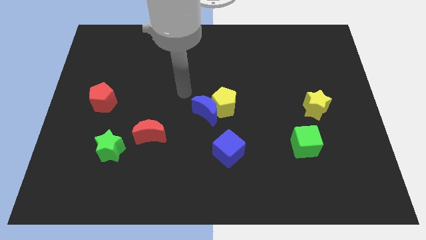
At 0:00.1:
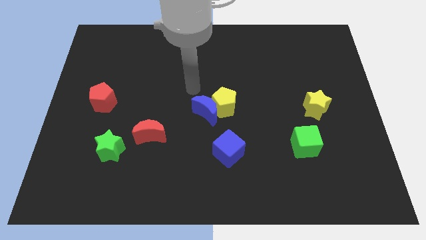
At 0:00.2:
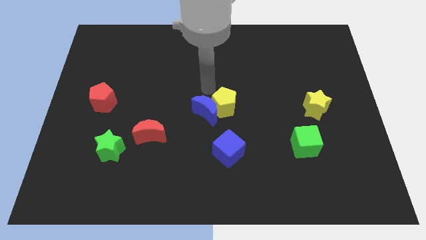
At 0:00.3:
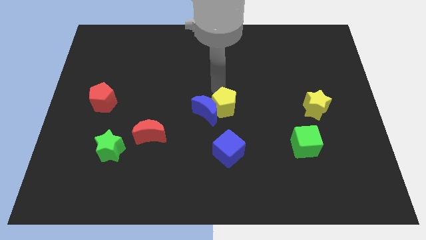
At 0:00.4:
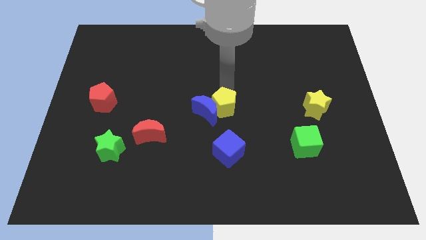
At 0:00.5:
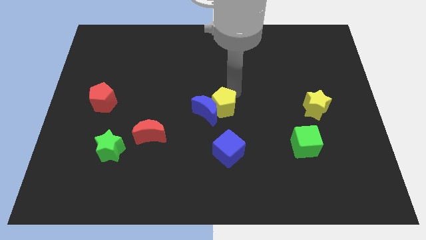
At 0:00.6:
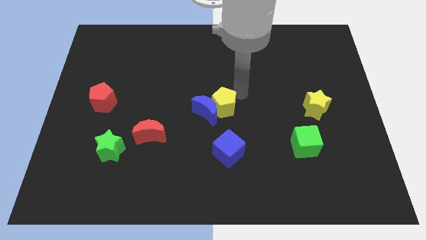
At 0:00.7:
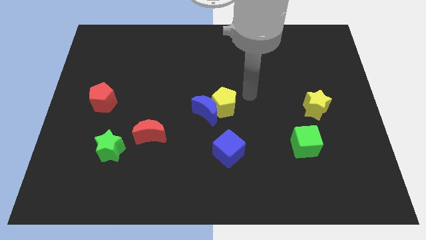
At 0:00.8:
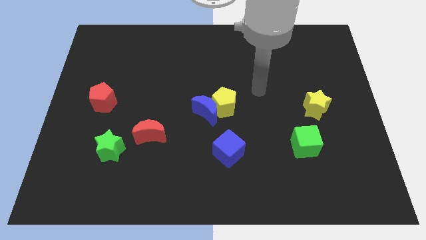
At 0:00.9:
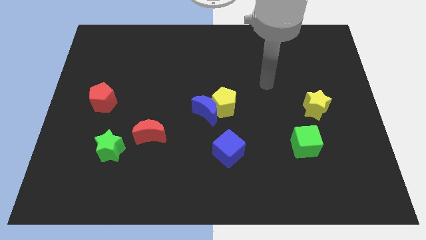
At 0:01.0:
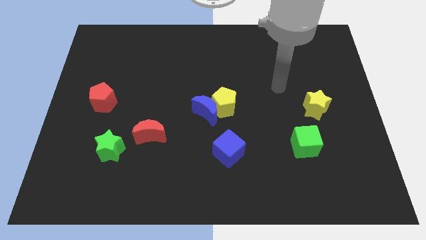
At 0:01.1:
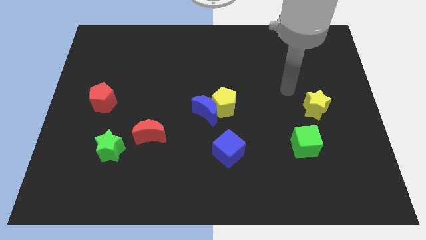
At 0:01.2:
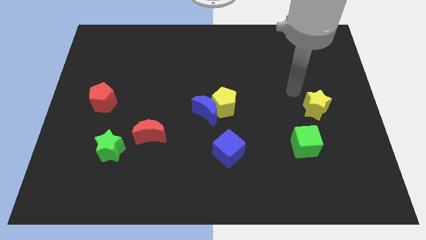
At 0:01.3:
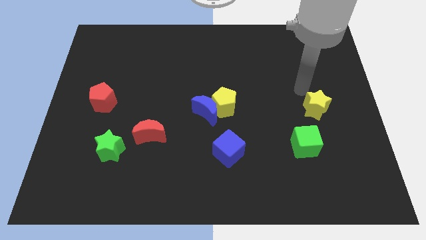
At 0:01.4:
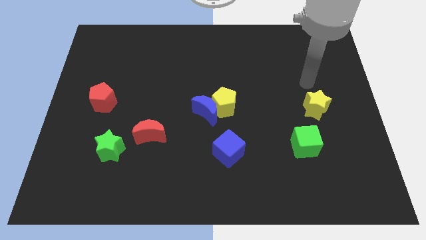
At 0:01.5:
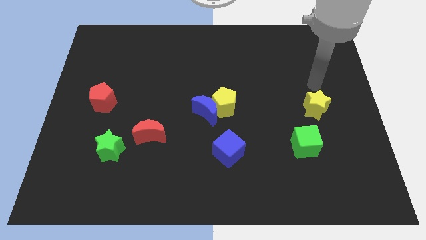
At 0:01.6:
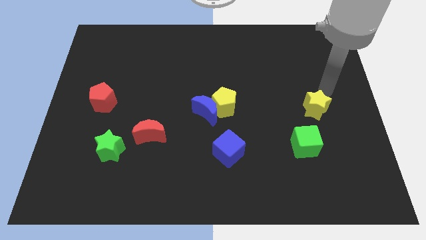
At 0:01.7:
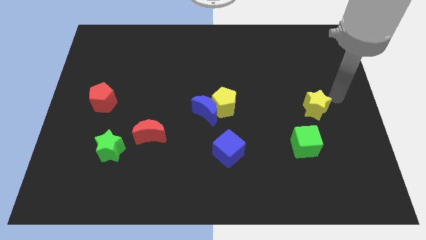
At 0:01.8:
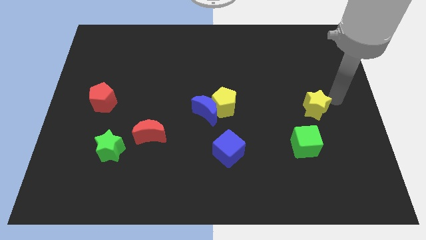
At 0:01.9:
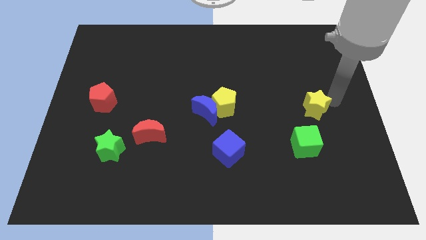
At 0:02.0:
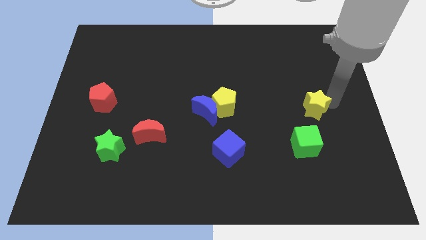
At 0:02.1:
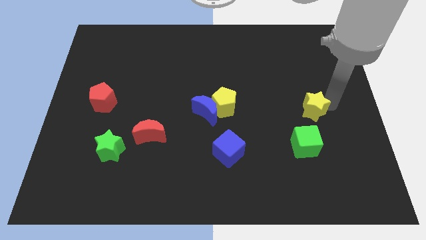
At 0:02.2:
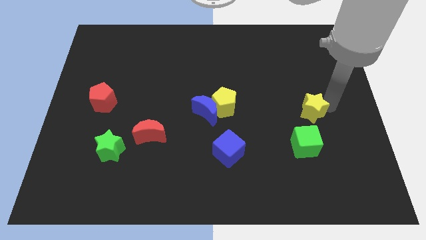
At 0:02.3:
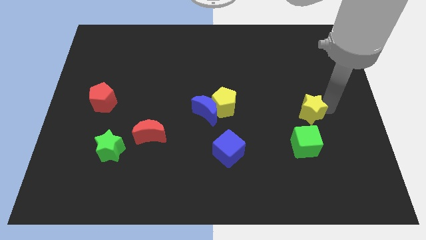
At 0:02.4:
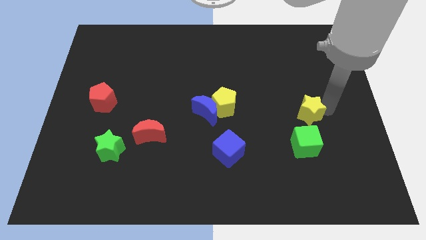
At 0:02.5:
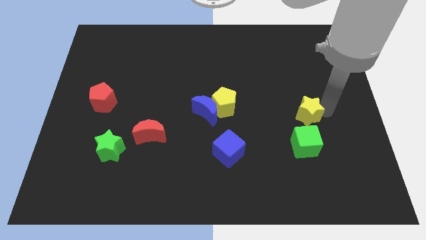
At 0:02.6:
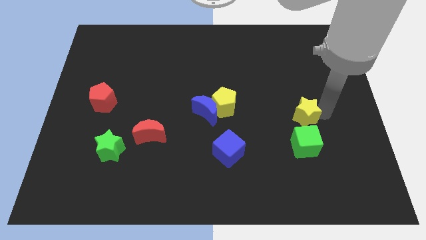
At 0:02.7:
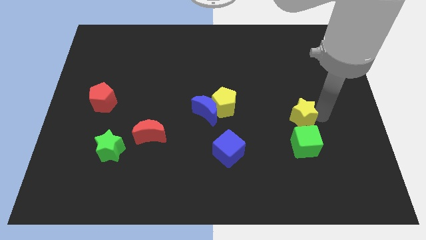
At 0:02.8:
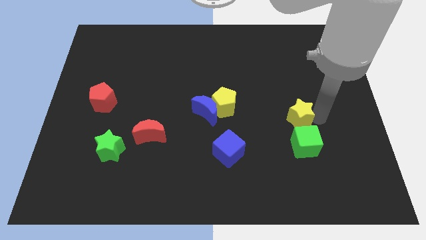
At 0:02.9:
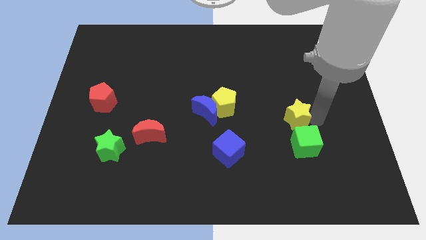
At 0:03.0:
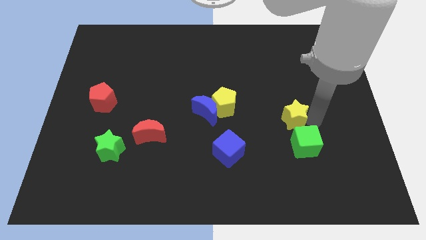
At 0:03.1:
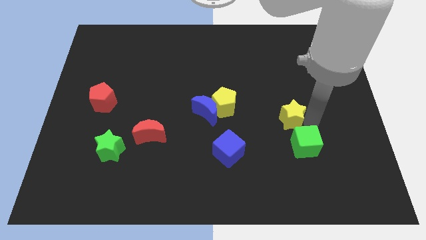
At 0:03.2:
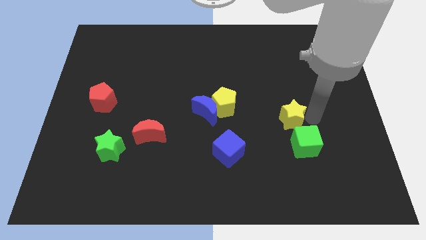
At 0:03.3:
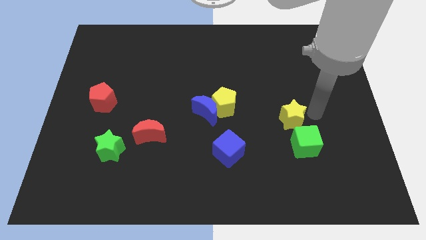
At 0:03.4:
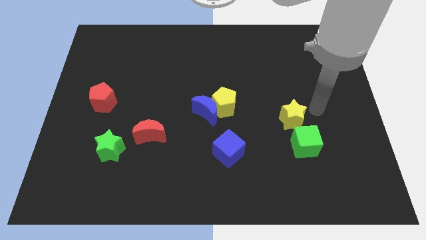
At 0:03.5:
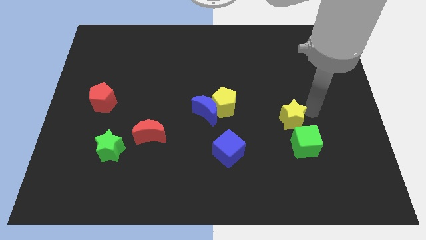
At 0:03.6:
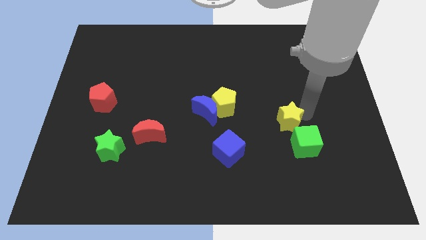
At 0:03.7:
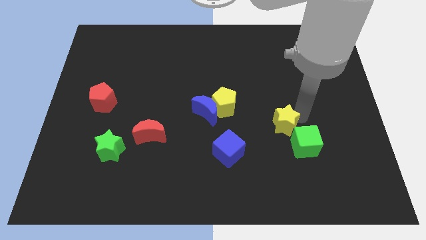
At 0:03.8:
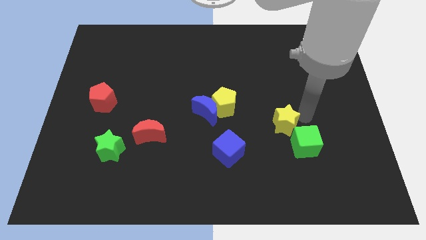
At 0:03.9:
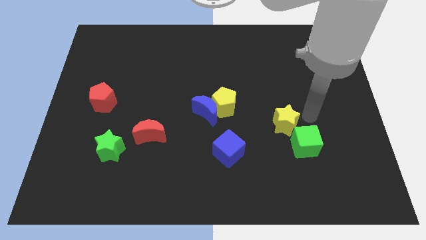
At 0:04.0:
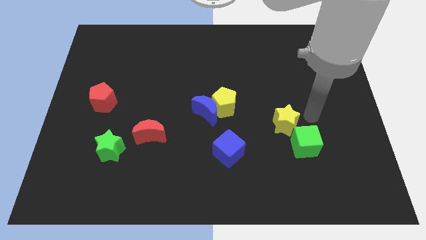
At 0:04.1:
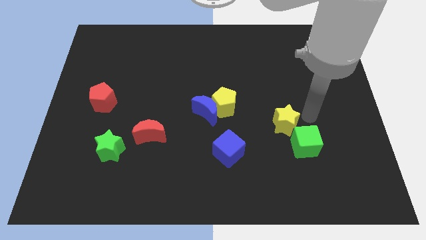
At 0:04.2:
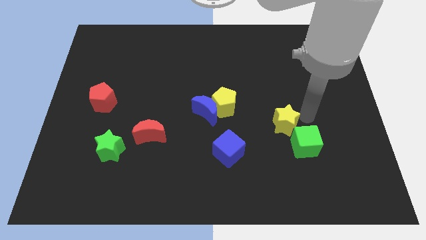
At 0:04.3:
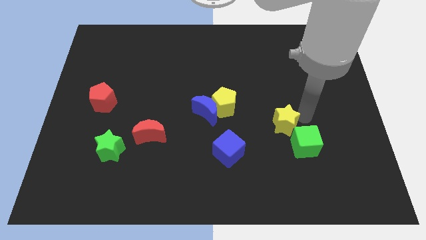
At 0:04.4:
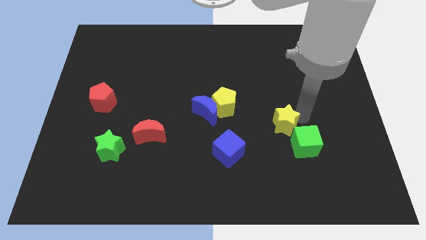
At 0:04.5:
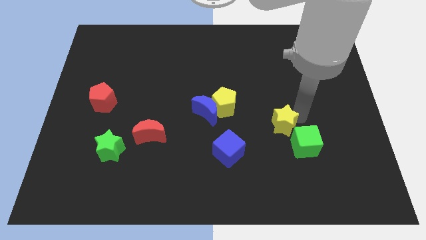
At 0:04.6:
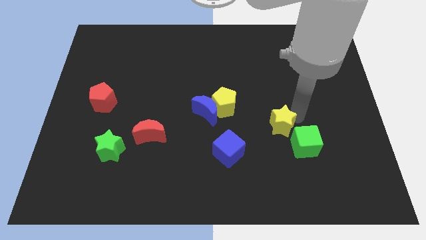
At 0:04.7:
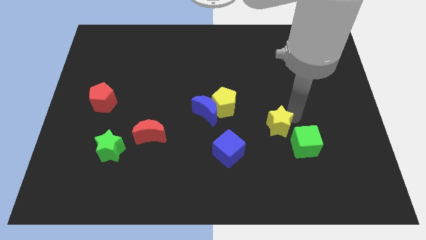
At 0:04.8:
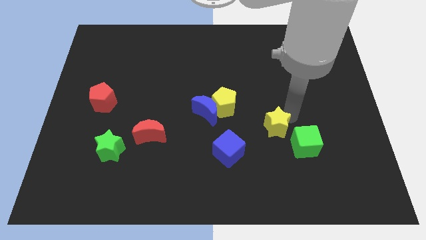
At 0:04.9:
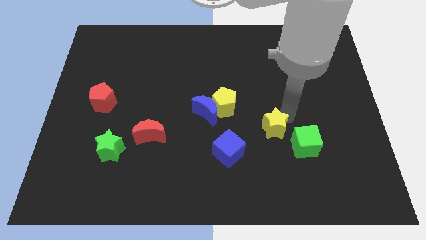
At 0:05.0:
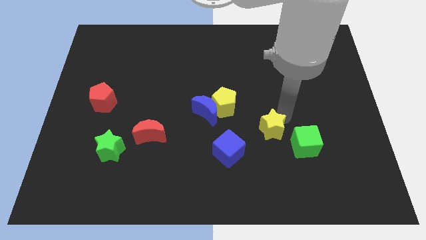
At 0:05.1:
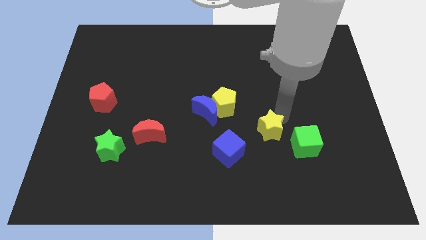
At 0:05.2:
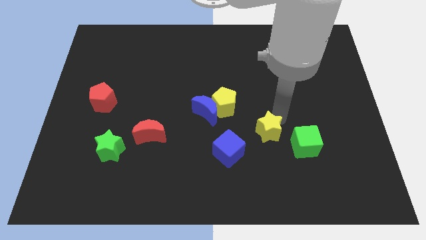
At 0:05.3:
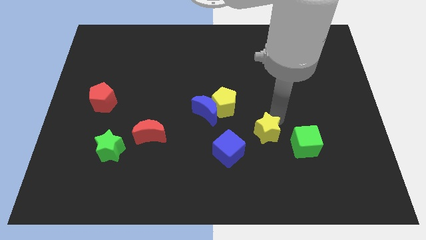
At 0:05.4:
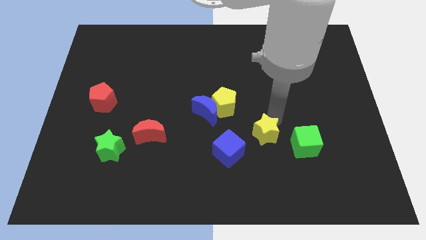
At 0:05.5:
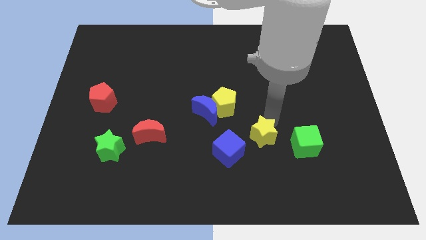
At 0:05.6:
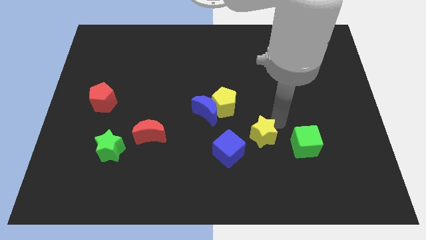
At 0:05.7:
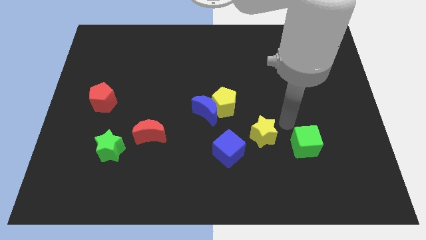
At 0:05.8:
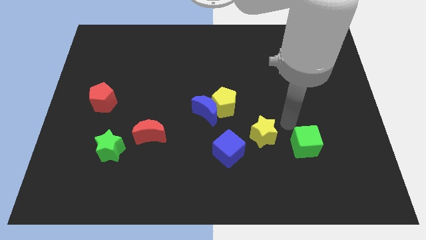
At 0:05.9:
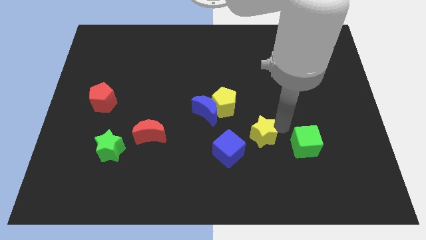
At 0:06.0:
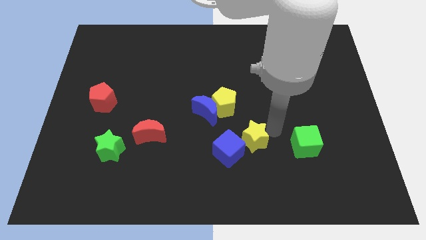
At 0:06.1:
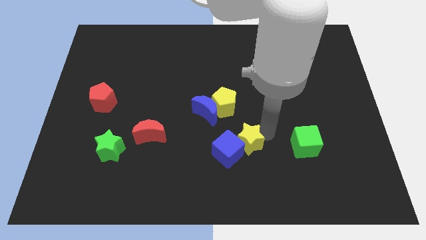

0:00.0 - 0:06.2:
move the yellow star to the blue cube
